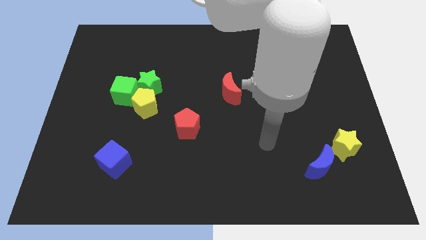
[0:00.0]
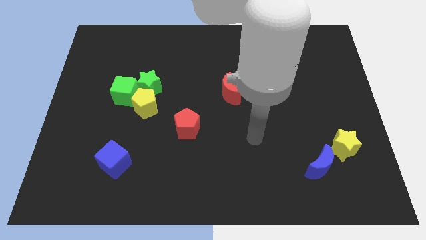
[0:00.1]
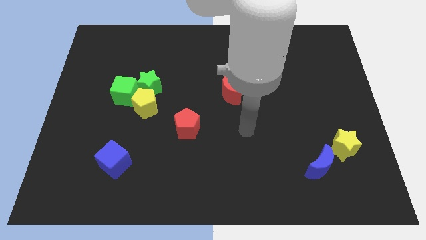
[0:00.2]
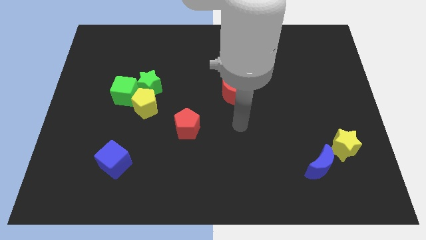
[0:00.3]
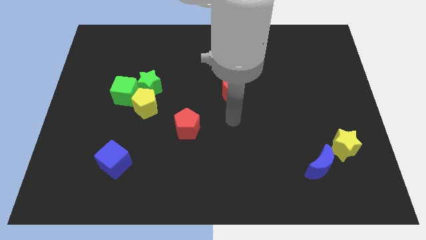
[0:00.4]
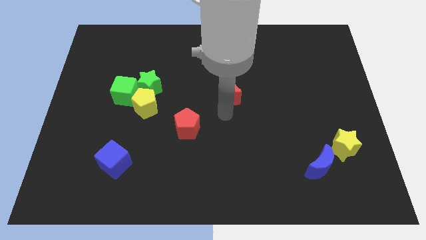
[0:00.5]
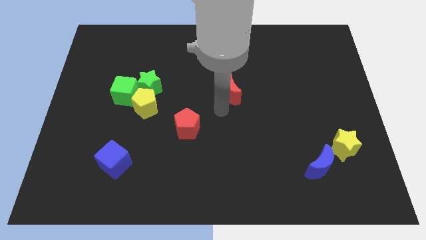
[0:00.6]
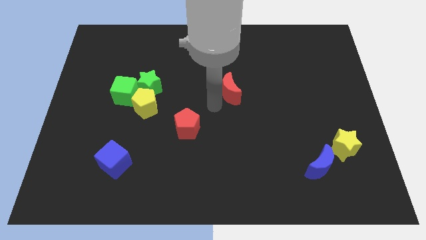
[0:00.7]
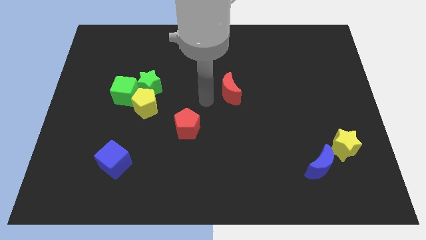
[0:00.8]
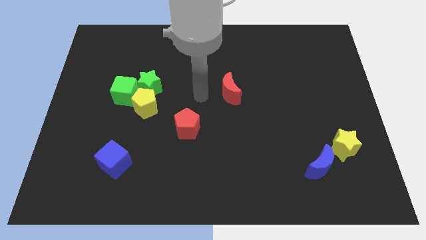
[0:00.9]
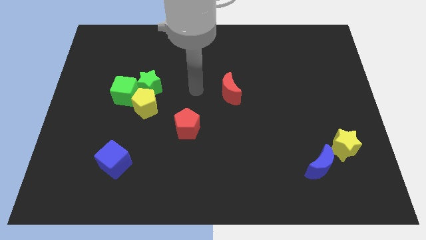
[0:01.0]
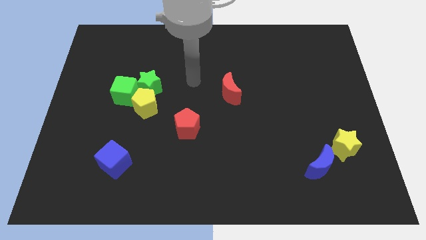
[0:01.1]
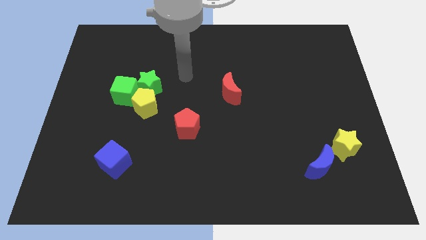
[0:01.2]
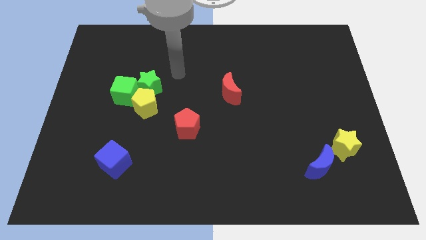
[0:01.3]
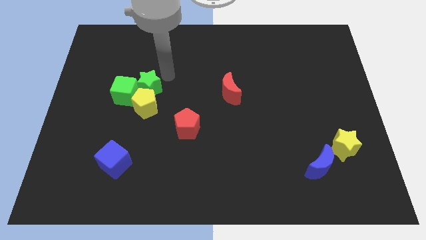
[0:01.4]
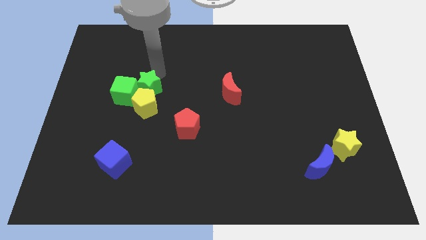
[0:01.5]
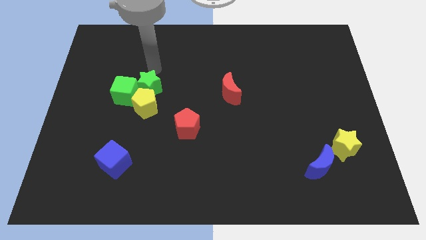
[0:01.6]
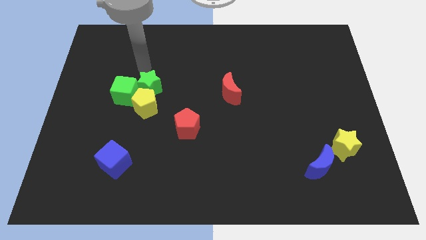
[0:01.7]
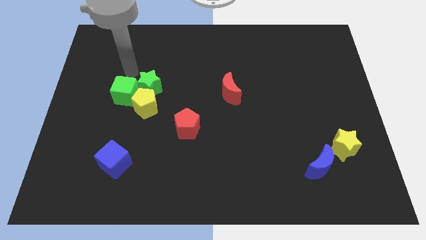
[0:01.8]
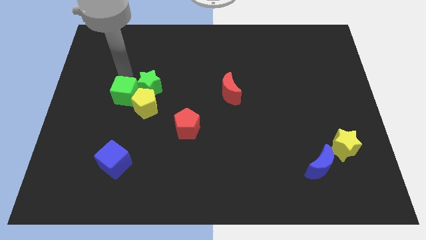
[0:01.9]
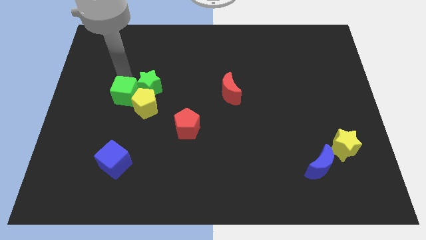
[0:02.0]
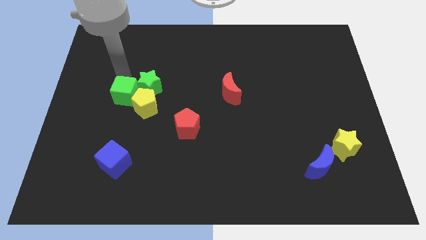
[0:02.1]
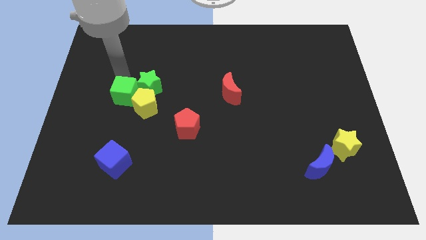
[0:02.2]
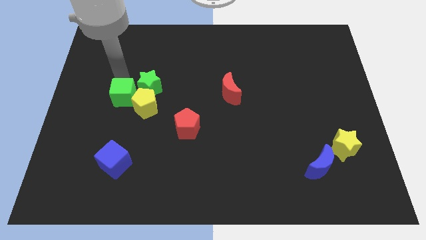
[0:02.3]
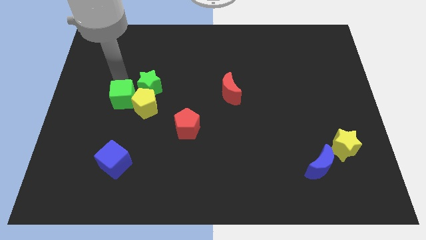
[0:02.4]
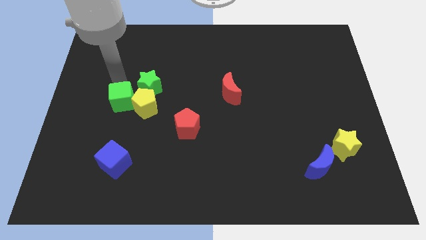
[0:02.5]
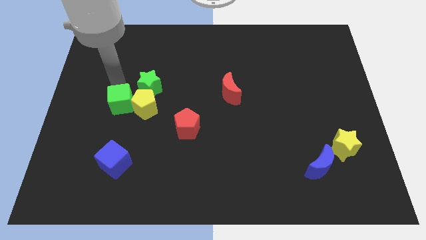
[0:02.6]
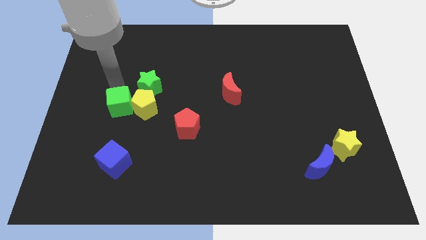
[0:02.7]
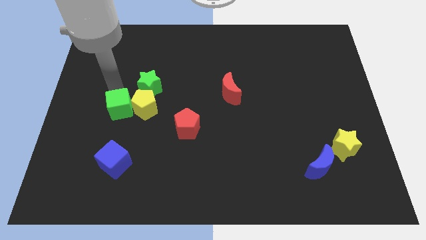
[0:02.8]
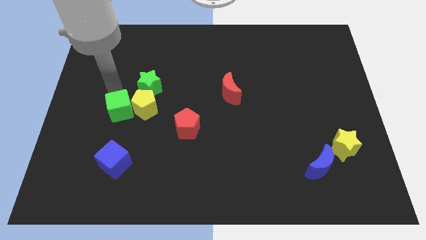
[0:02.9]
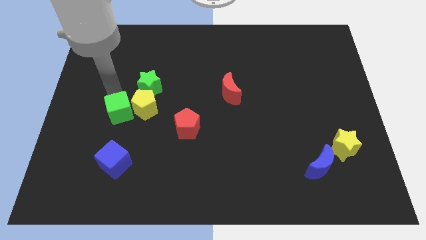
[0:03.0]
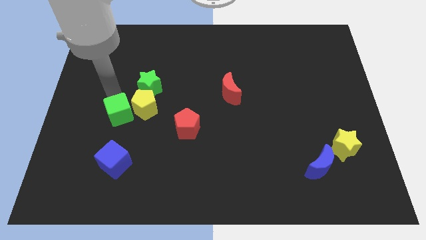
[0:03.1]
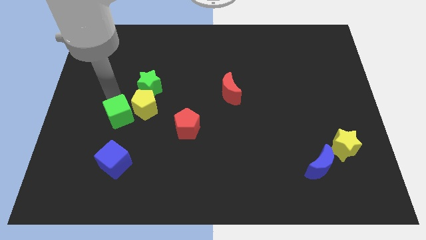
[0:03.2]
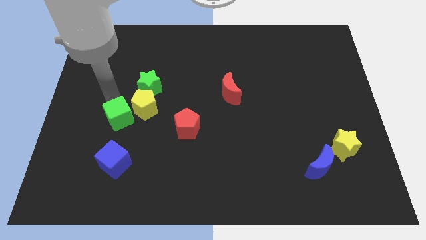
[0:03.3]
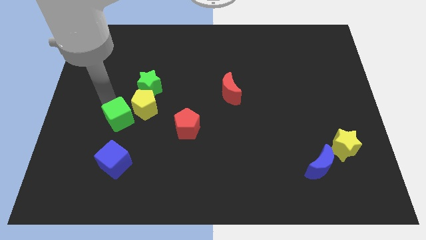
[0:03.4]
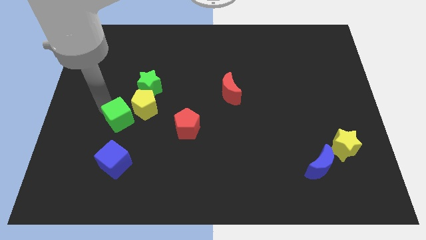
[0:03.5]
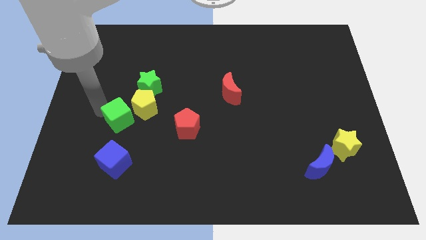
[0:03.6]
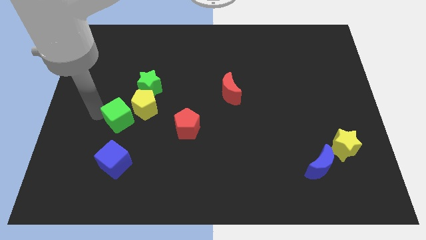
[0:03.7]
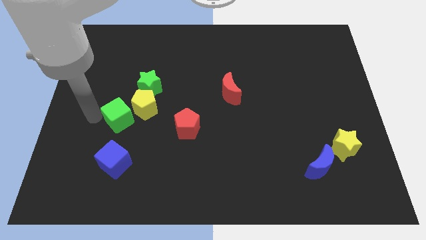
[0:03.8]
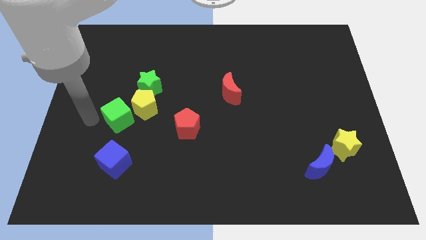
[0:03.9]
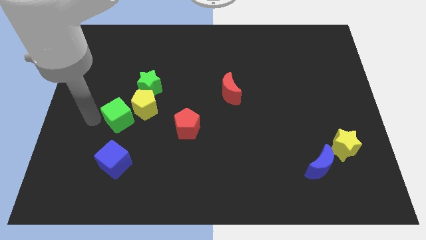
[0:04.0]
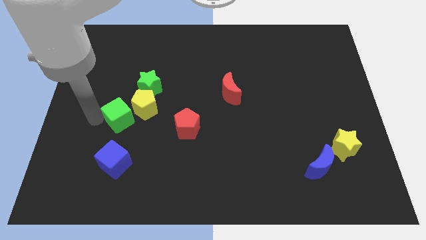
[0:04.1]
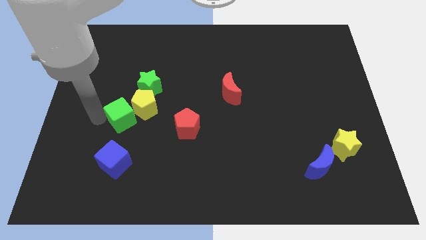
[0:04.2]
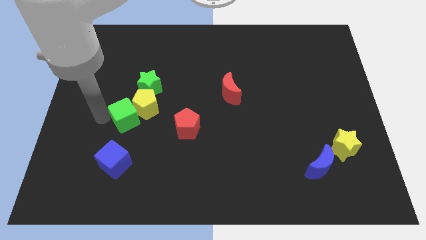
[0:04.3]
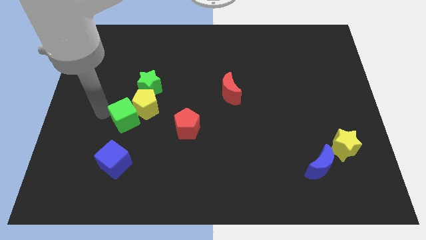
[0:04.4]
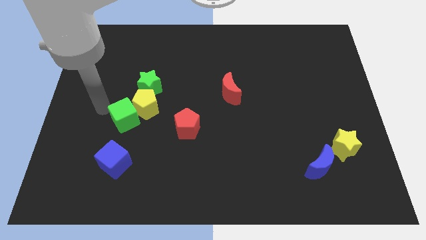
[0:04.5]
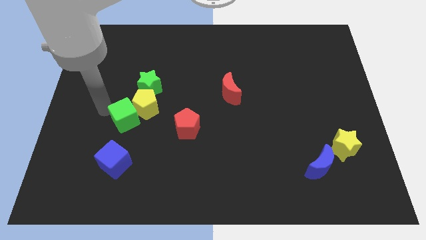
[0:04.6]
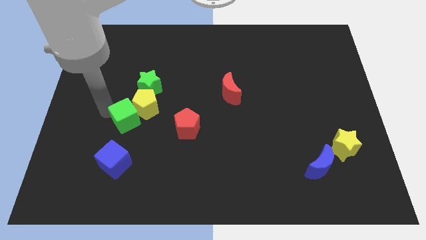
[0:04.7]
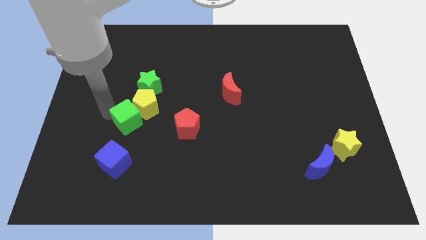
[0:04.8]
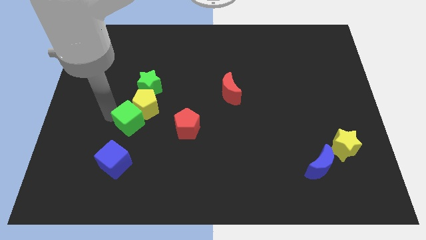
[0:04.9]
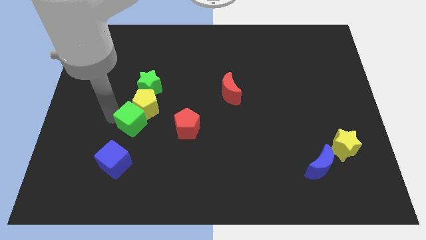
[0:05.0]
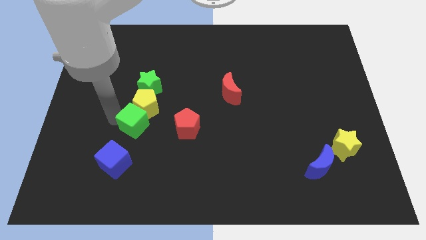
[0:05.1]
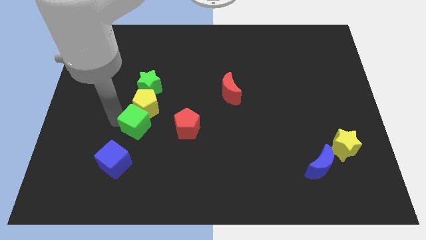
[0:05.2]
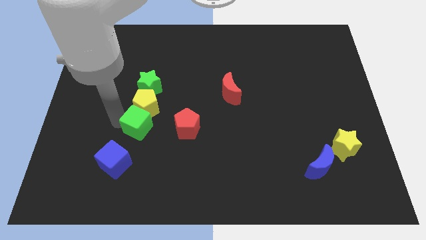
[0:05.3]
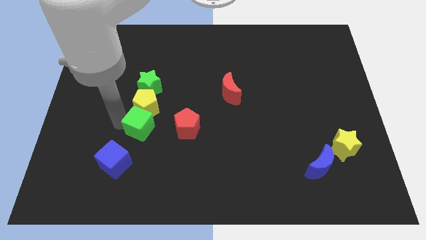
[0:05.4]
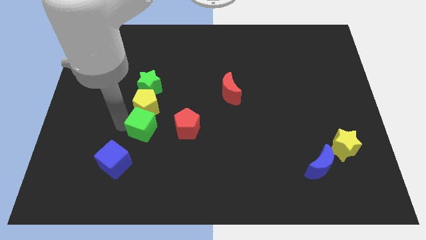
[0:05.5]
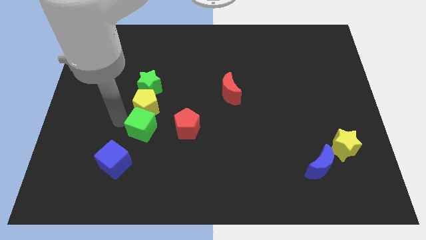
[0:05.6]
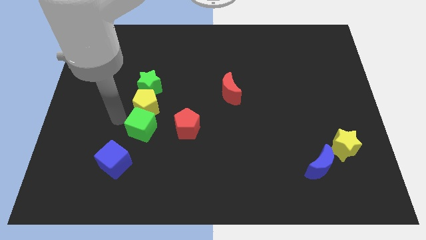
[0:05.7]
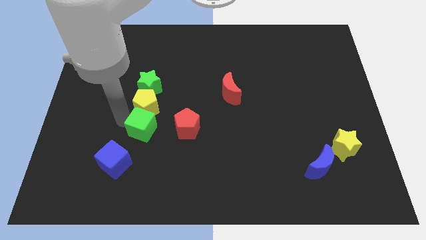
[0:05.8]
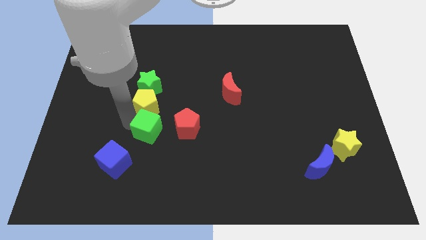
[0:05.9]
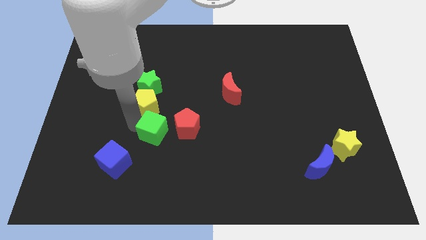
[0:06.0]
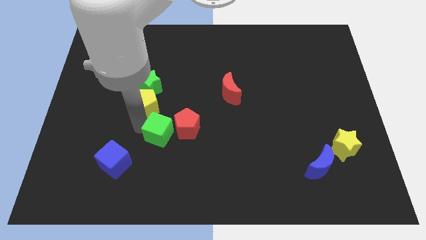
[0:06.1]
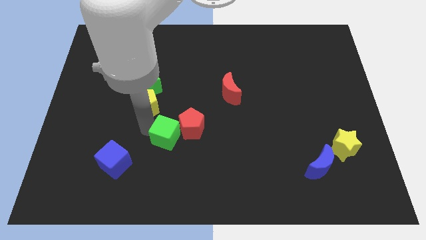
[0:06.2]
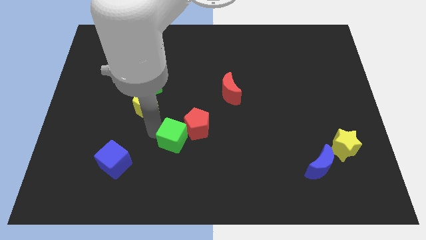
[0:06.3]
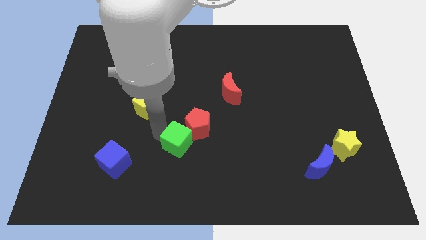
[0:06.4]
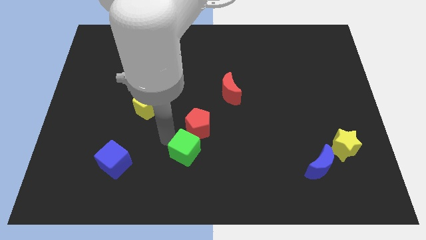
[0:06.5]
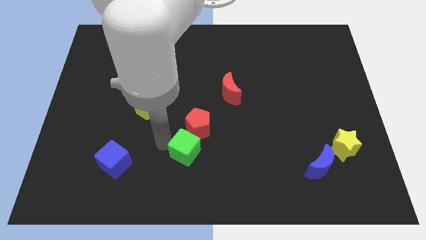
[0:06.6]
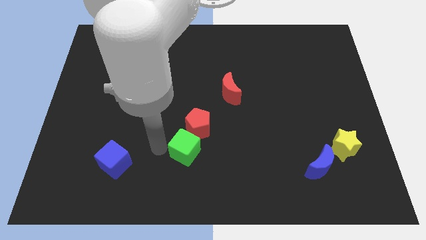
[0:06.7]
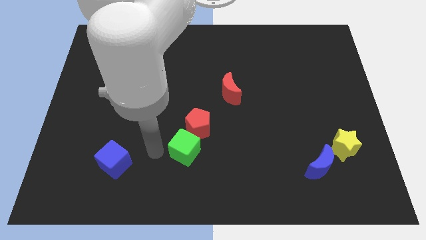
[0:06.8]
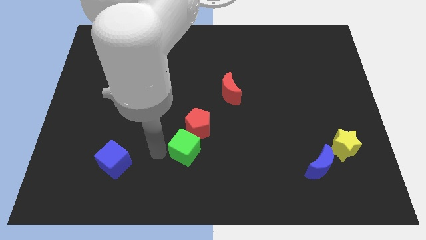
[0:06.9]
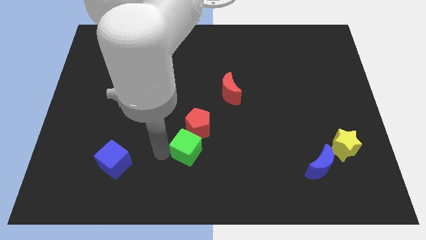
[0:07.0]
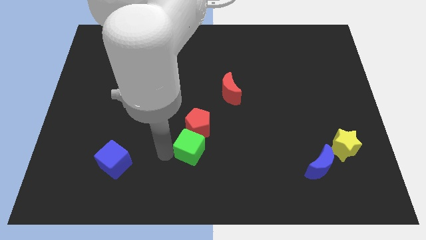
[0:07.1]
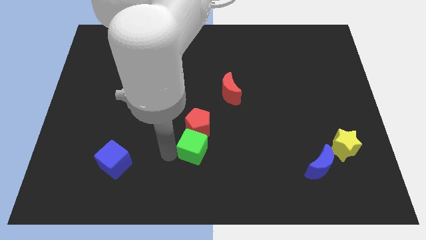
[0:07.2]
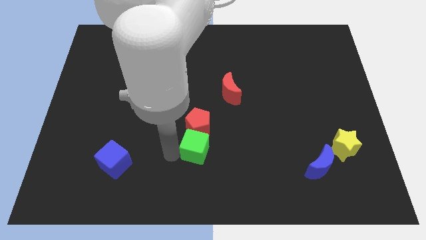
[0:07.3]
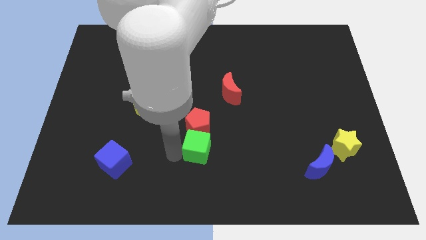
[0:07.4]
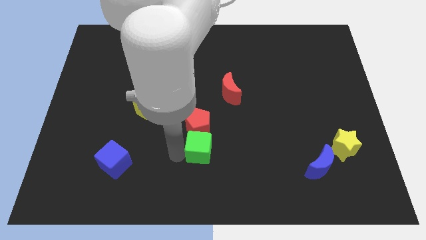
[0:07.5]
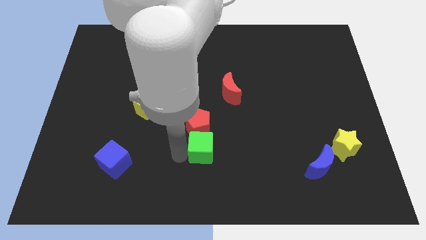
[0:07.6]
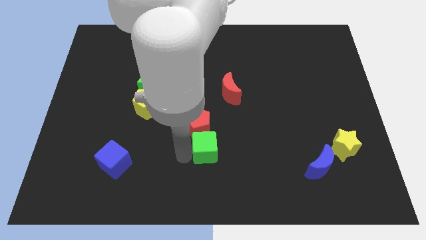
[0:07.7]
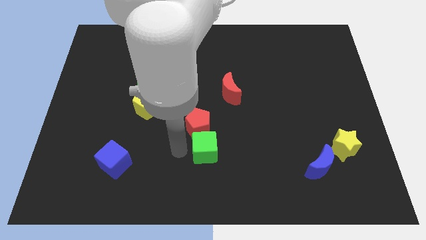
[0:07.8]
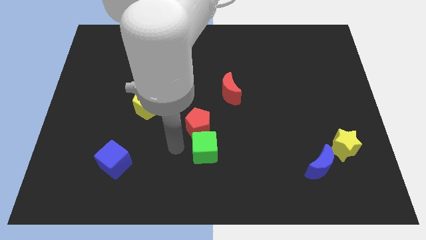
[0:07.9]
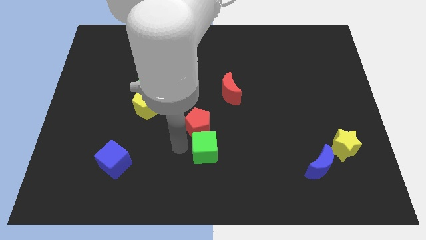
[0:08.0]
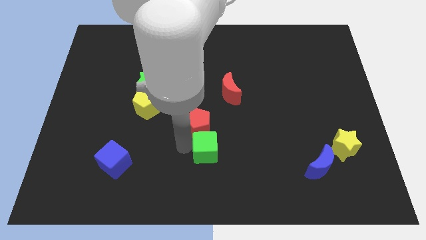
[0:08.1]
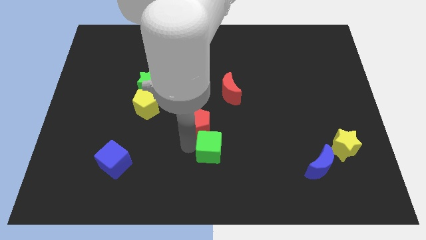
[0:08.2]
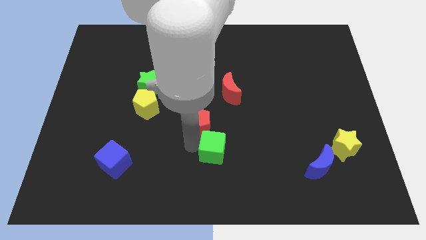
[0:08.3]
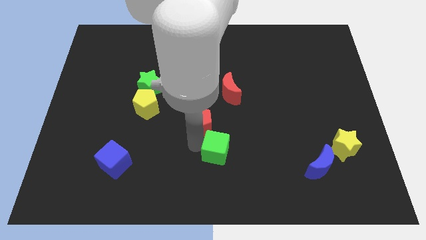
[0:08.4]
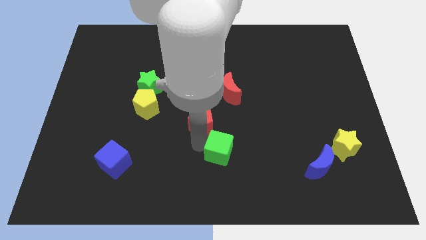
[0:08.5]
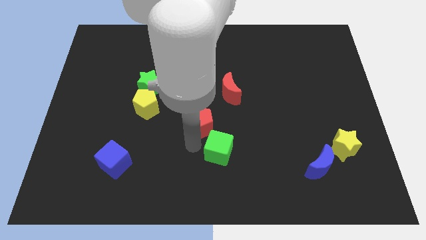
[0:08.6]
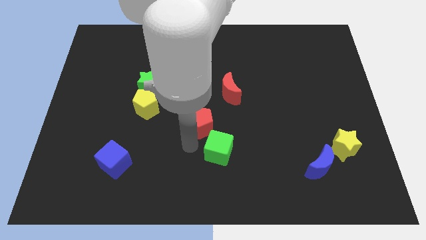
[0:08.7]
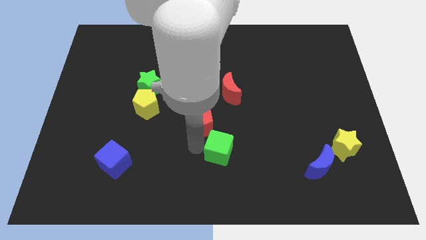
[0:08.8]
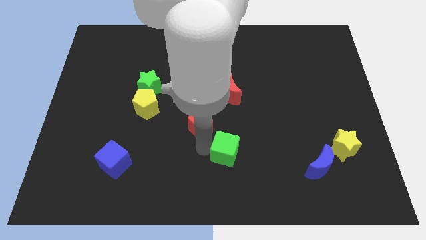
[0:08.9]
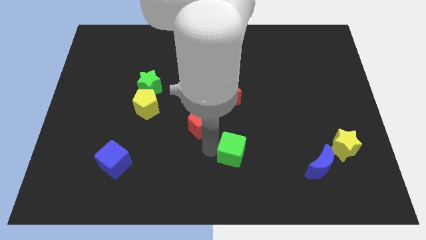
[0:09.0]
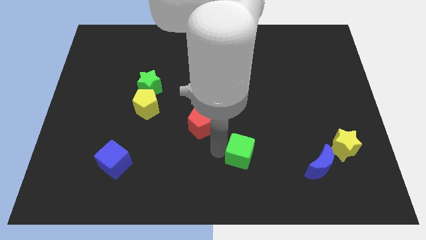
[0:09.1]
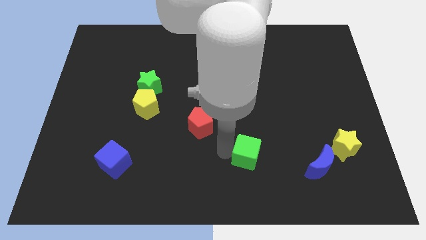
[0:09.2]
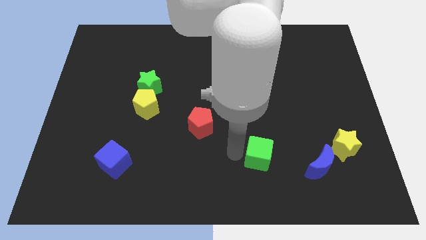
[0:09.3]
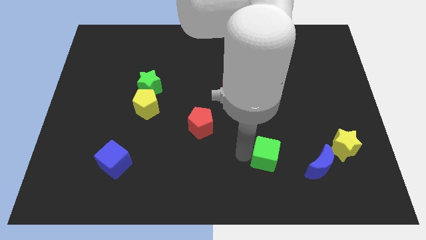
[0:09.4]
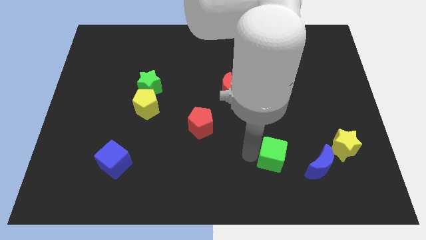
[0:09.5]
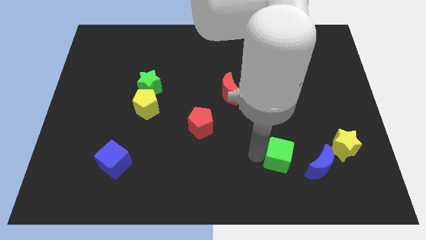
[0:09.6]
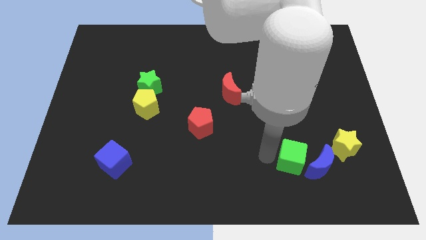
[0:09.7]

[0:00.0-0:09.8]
slide the green cube to the blue moon
